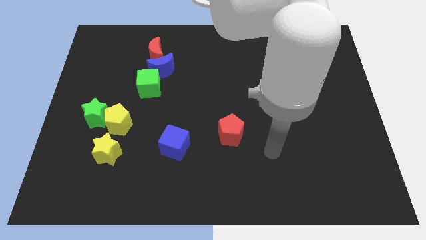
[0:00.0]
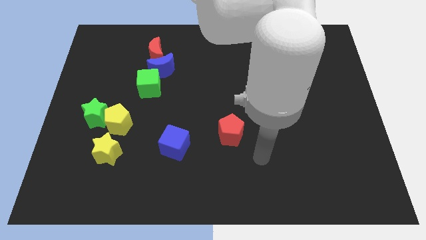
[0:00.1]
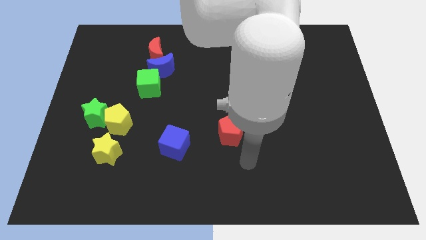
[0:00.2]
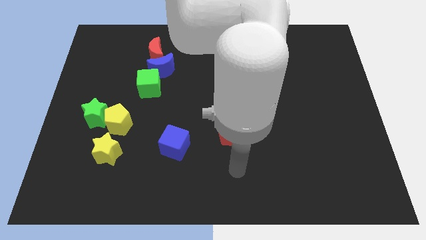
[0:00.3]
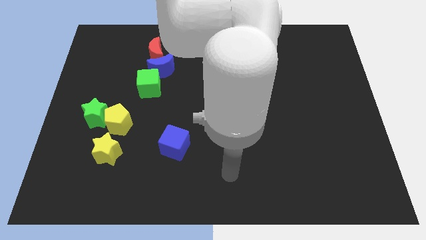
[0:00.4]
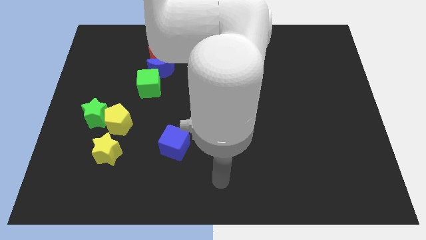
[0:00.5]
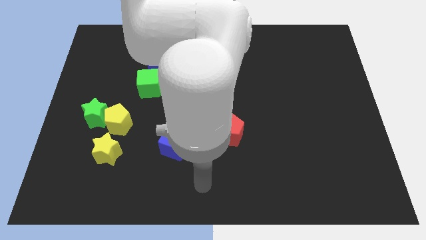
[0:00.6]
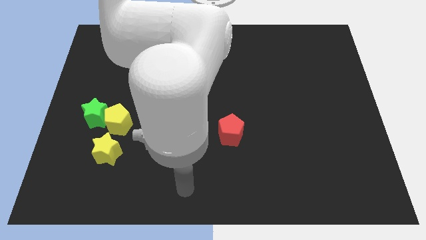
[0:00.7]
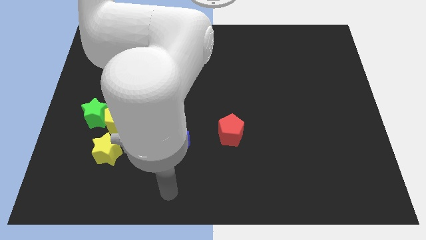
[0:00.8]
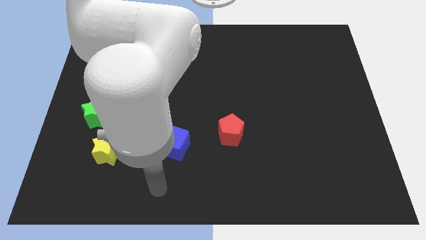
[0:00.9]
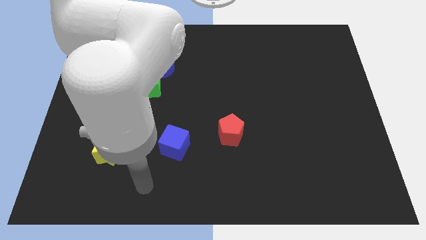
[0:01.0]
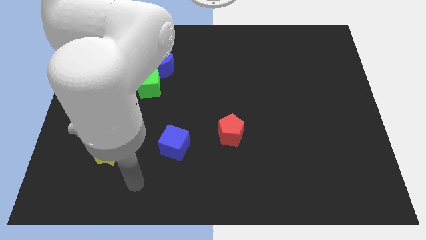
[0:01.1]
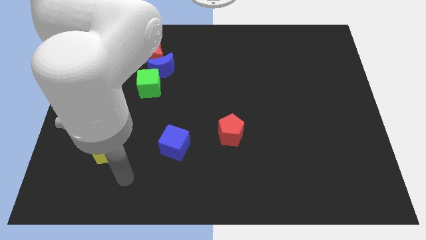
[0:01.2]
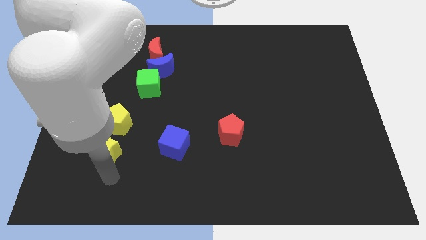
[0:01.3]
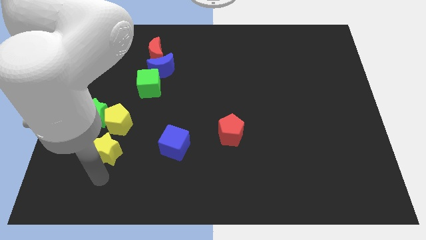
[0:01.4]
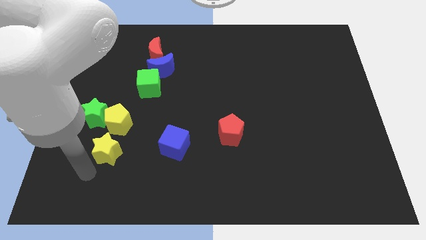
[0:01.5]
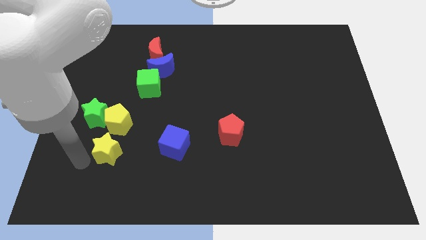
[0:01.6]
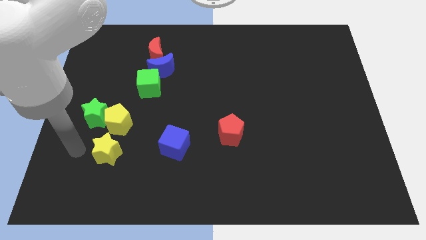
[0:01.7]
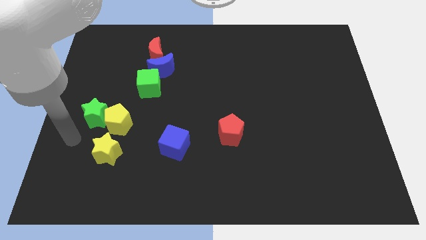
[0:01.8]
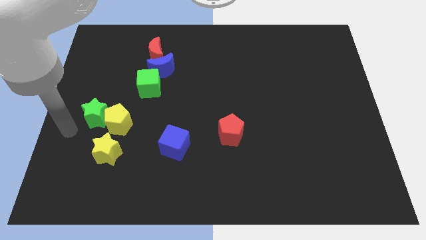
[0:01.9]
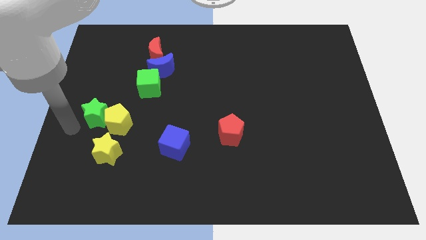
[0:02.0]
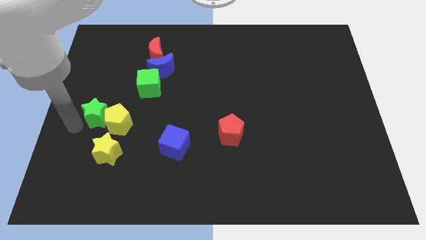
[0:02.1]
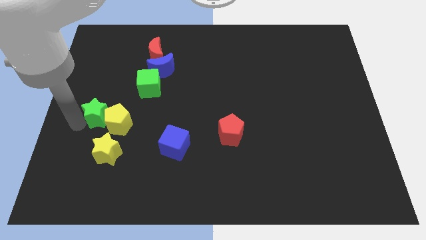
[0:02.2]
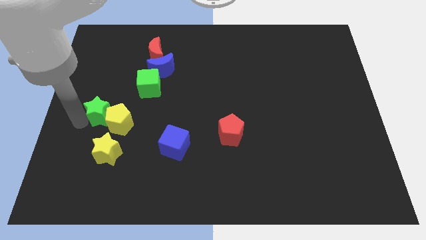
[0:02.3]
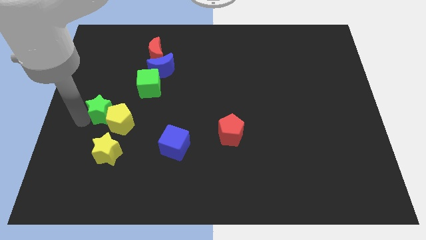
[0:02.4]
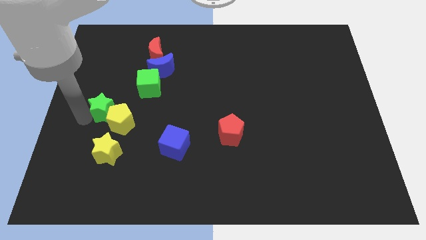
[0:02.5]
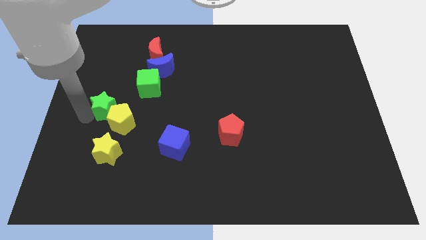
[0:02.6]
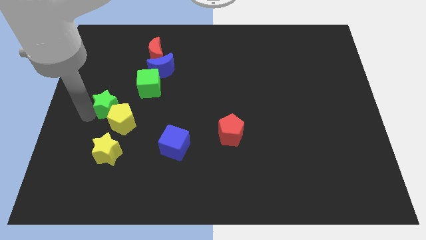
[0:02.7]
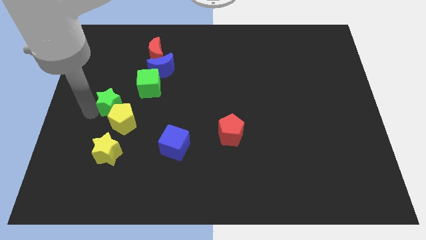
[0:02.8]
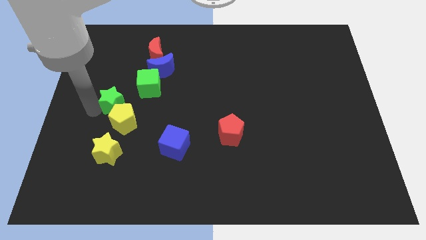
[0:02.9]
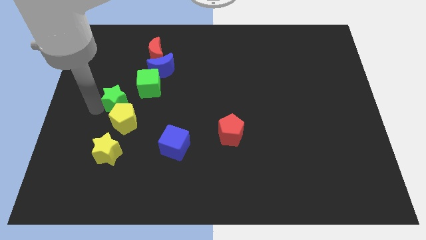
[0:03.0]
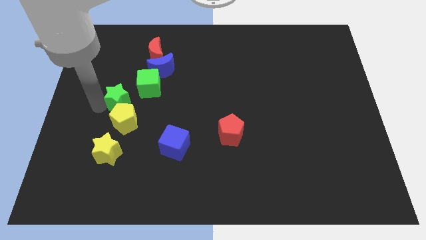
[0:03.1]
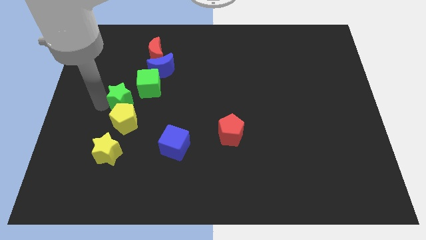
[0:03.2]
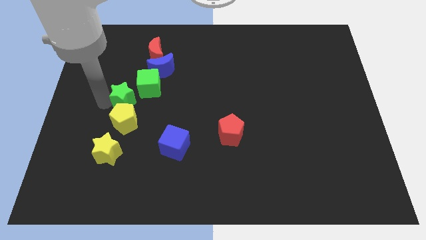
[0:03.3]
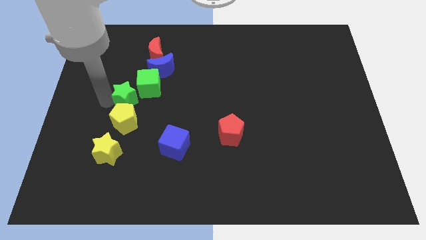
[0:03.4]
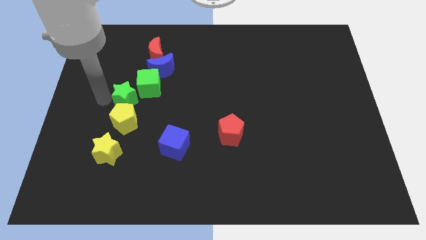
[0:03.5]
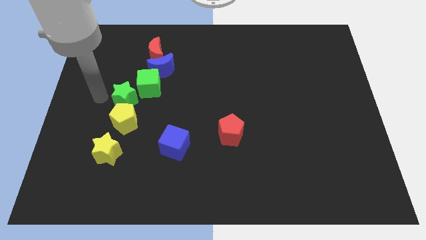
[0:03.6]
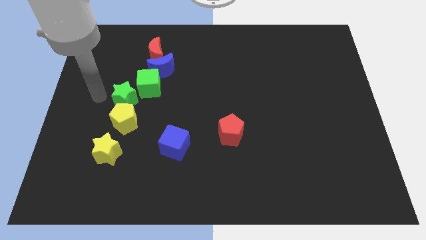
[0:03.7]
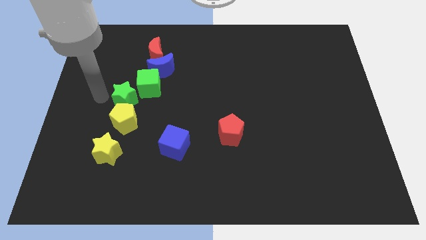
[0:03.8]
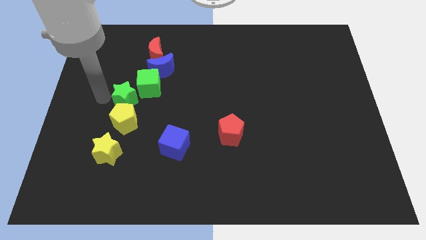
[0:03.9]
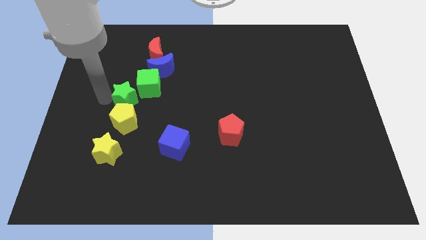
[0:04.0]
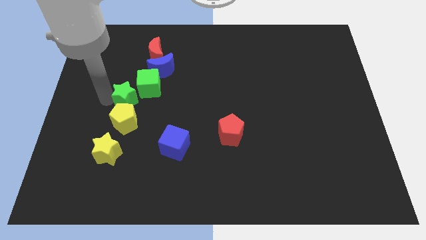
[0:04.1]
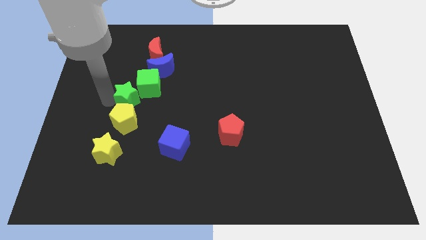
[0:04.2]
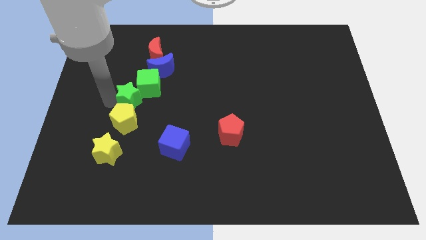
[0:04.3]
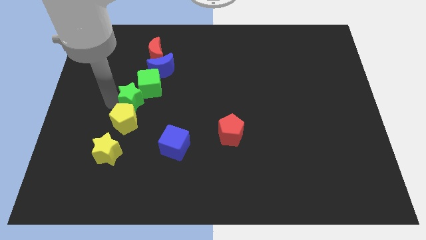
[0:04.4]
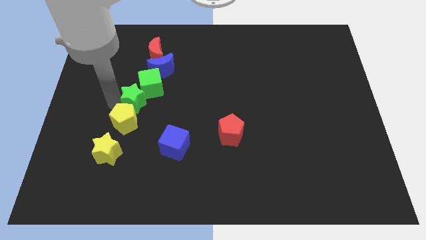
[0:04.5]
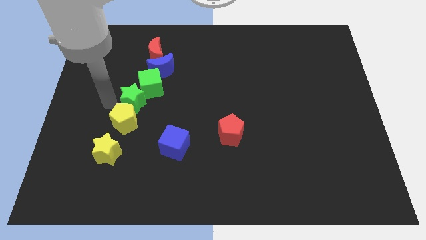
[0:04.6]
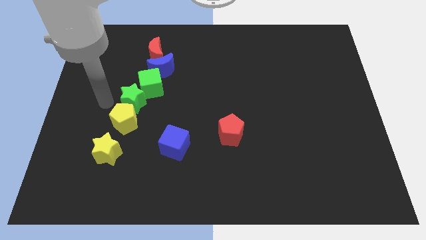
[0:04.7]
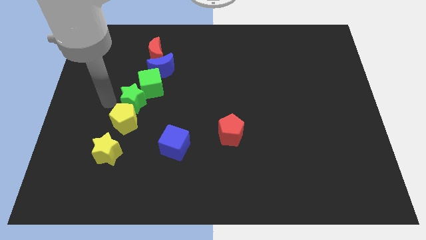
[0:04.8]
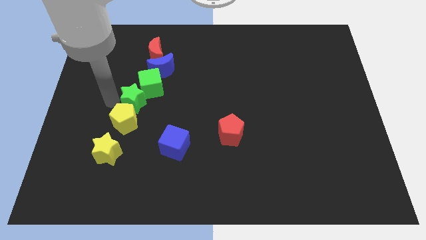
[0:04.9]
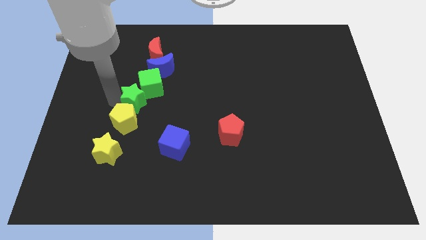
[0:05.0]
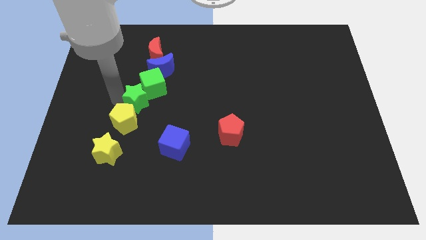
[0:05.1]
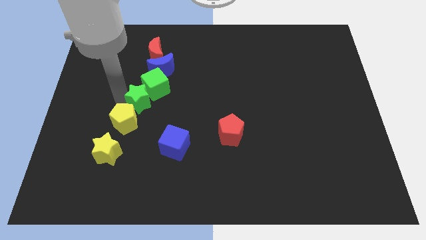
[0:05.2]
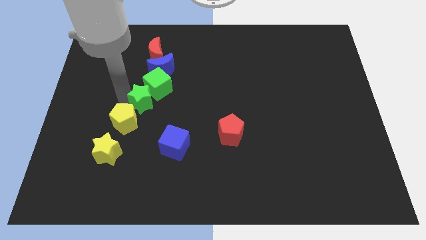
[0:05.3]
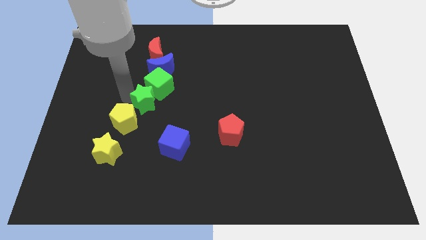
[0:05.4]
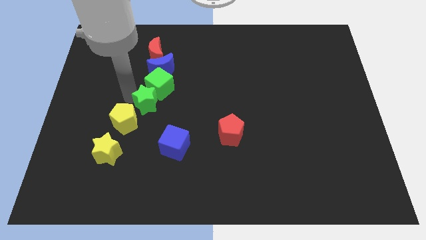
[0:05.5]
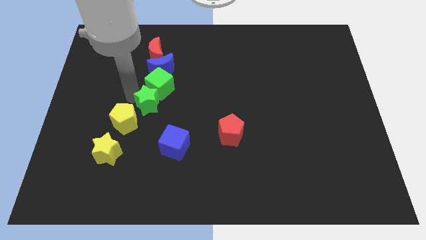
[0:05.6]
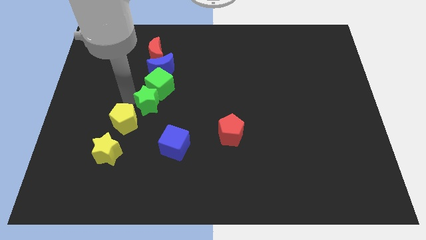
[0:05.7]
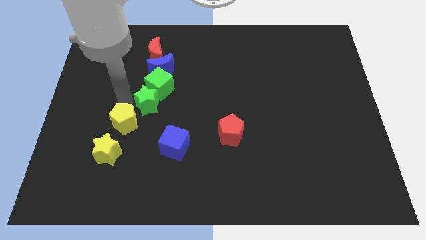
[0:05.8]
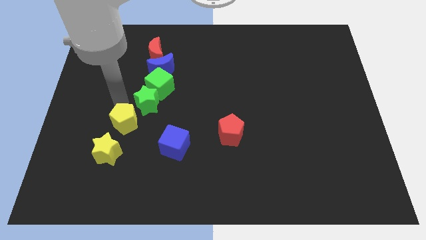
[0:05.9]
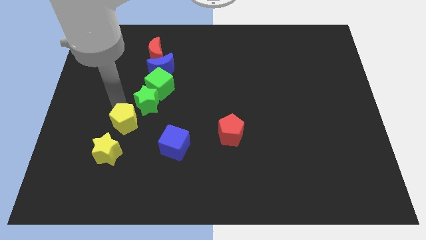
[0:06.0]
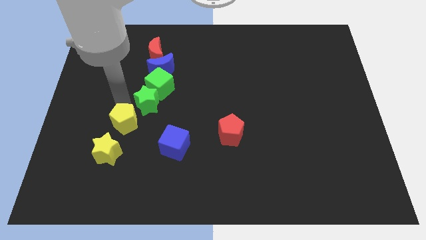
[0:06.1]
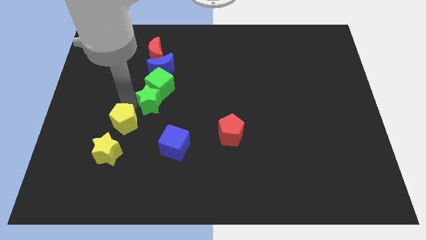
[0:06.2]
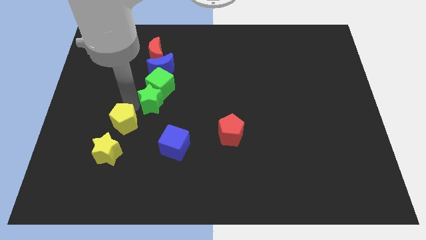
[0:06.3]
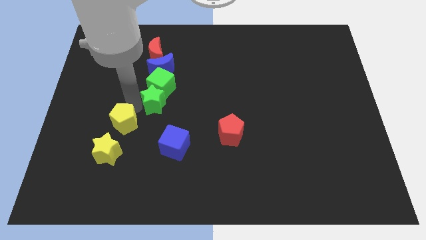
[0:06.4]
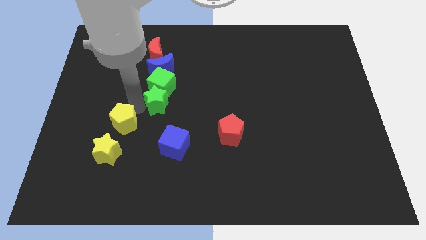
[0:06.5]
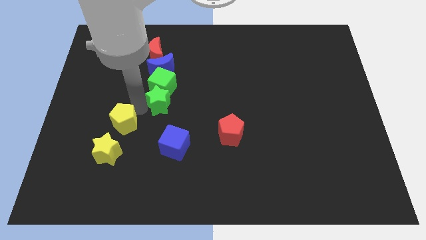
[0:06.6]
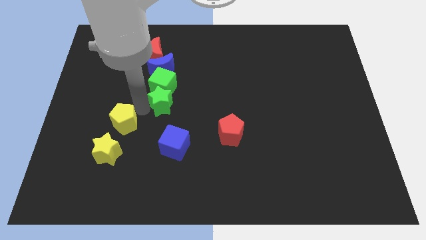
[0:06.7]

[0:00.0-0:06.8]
put the green star to the center
